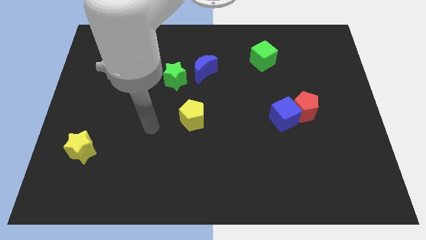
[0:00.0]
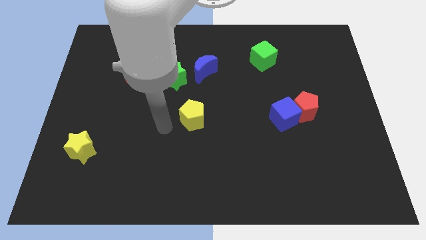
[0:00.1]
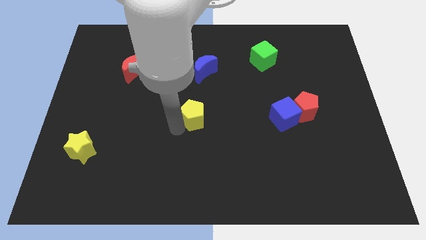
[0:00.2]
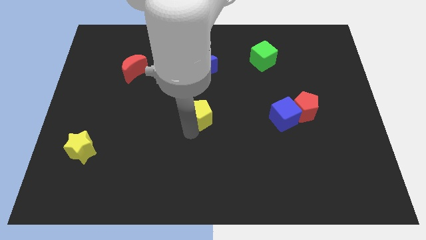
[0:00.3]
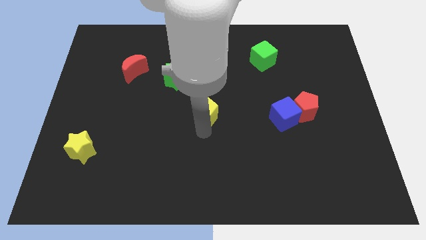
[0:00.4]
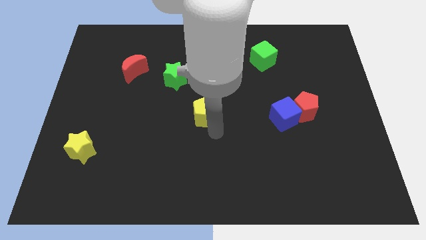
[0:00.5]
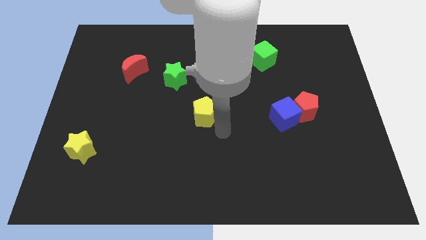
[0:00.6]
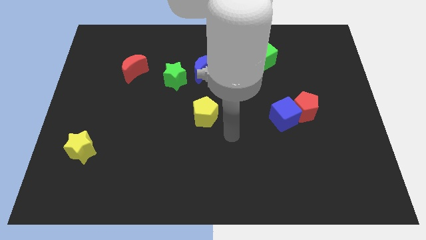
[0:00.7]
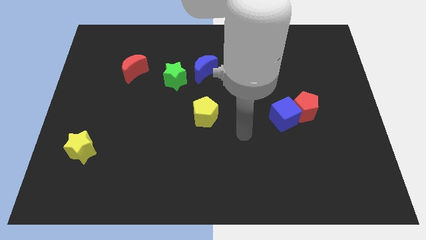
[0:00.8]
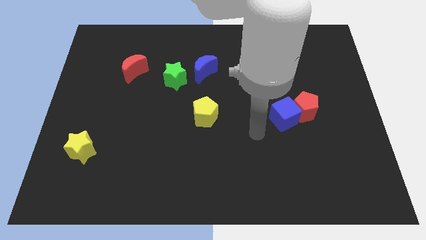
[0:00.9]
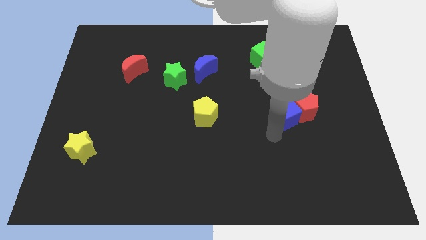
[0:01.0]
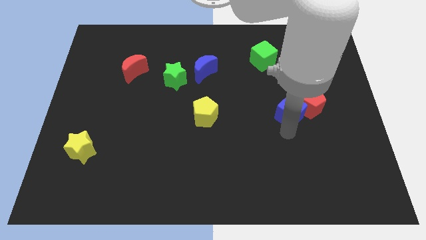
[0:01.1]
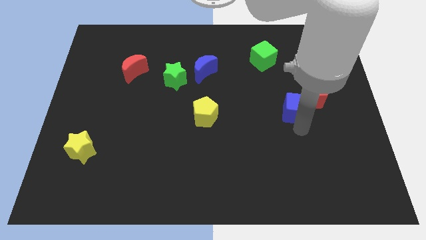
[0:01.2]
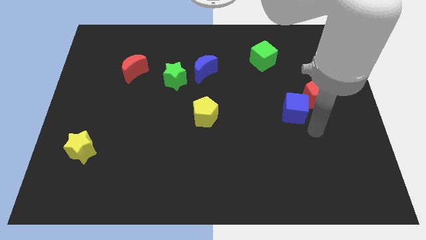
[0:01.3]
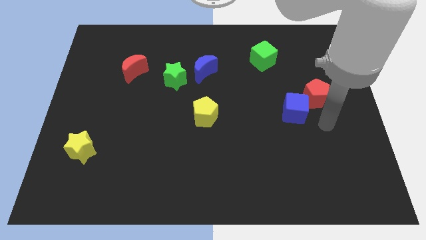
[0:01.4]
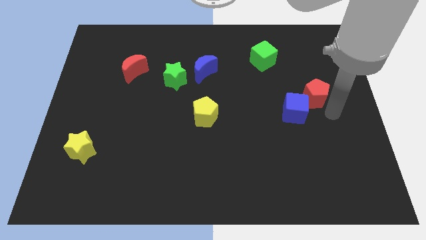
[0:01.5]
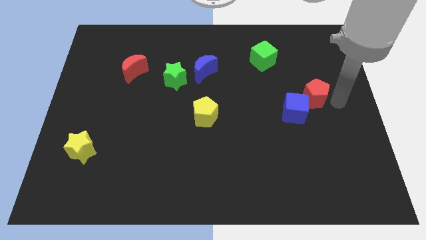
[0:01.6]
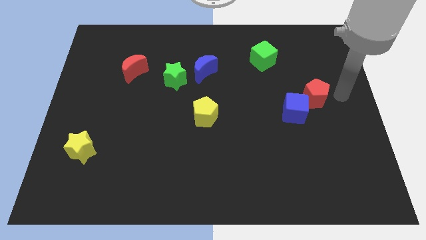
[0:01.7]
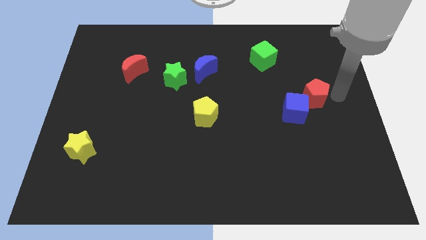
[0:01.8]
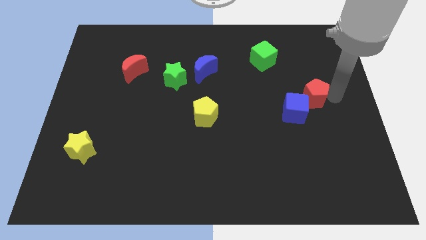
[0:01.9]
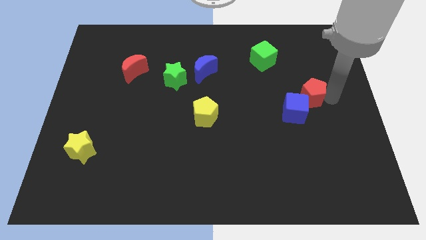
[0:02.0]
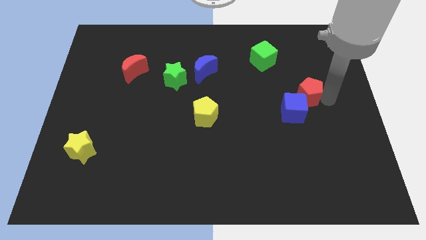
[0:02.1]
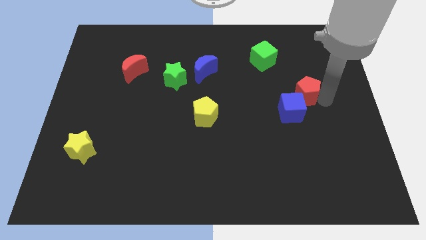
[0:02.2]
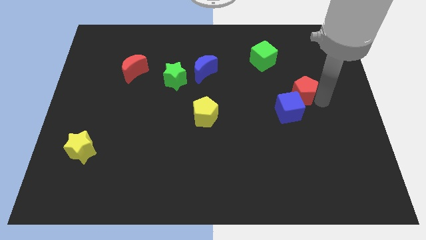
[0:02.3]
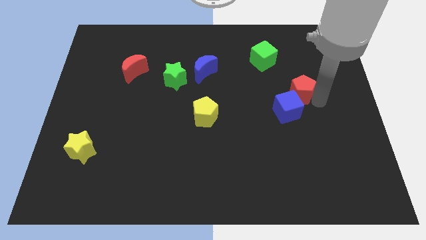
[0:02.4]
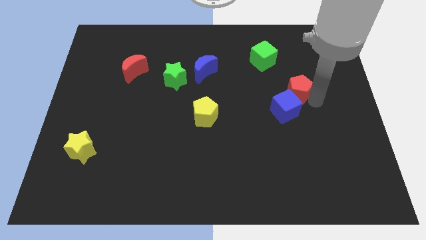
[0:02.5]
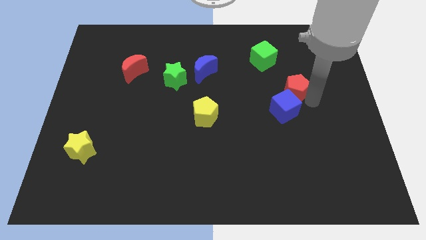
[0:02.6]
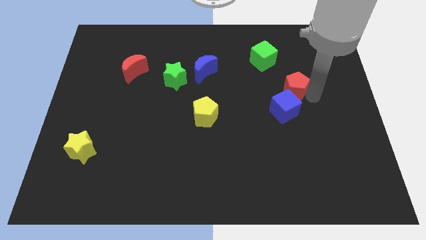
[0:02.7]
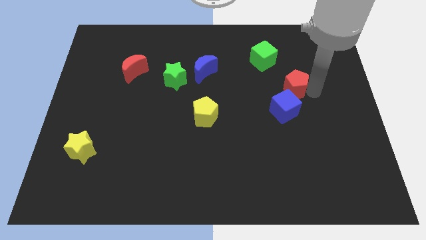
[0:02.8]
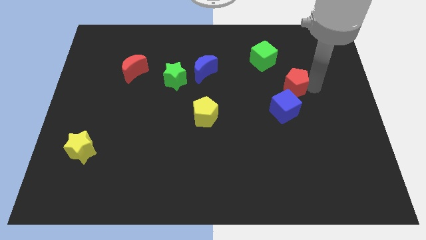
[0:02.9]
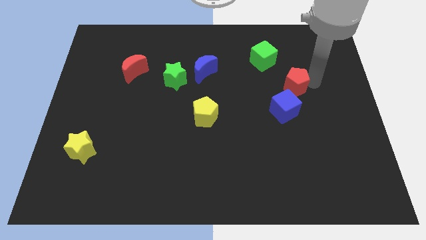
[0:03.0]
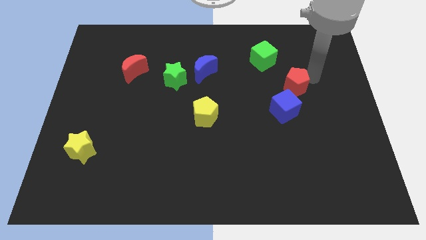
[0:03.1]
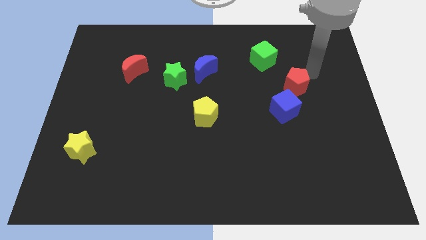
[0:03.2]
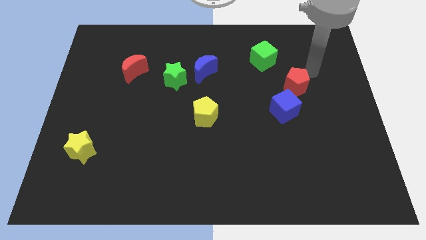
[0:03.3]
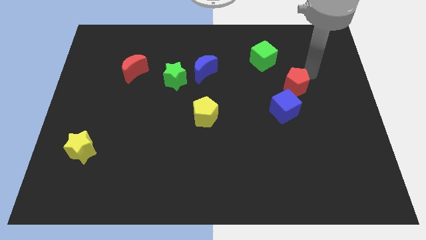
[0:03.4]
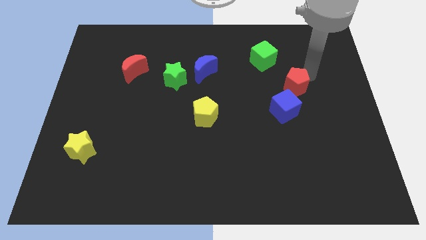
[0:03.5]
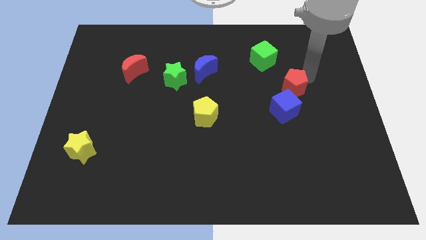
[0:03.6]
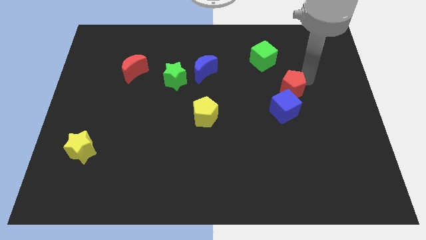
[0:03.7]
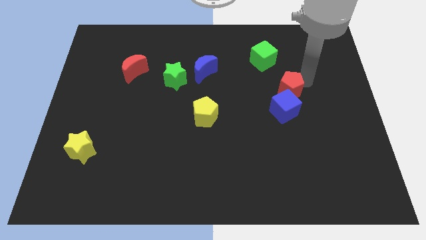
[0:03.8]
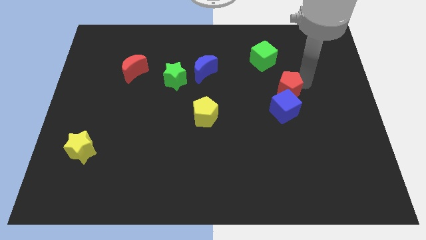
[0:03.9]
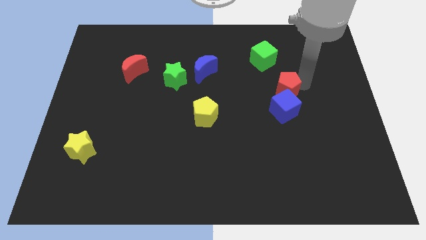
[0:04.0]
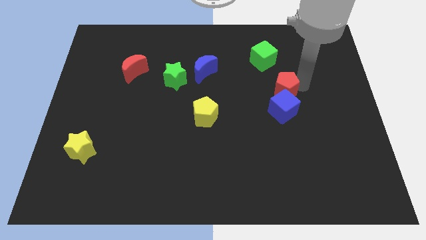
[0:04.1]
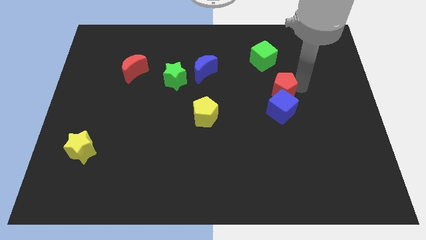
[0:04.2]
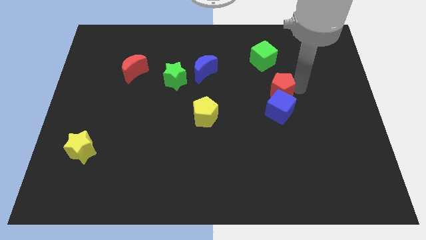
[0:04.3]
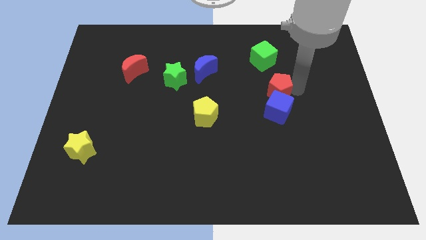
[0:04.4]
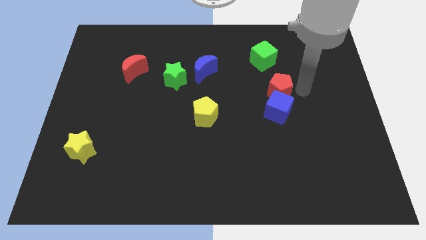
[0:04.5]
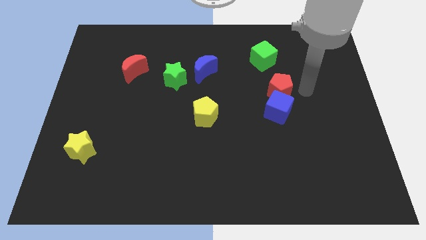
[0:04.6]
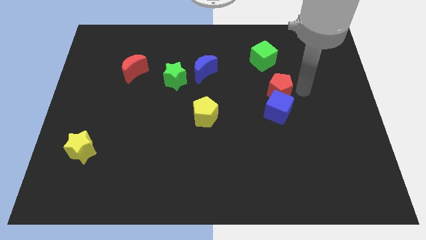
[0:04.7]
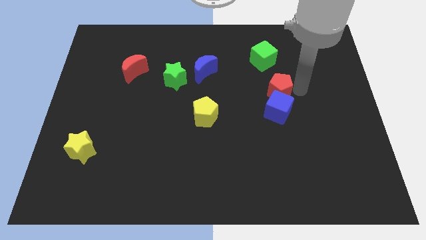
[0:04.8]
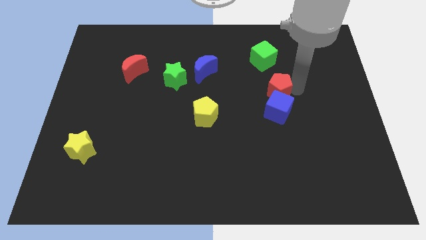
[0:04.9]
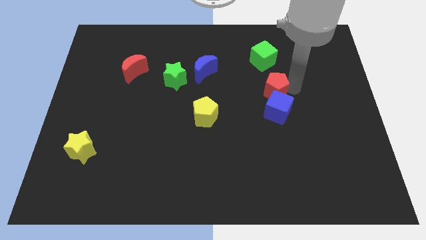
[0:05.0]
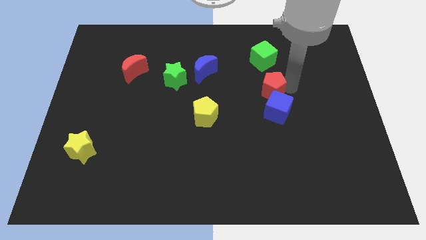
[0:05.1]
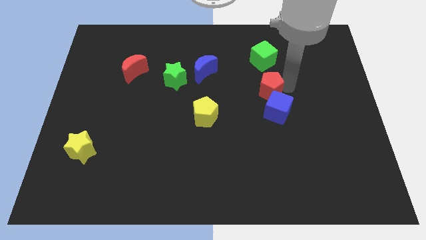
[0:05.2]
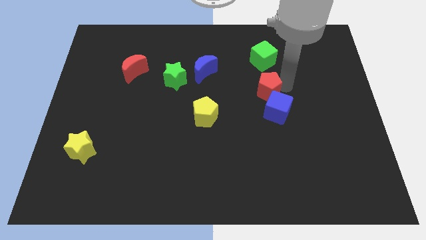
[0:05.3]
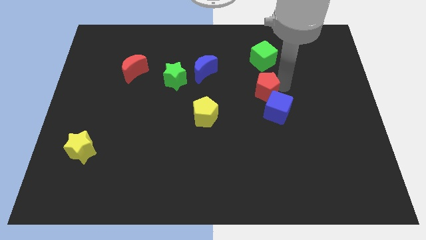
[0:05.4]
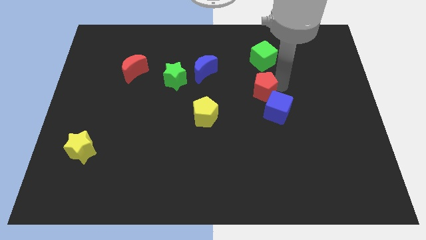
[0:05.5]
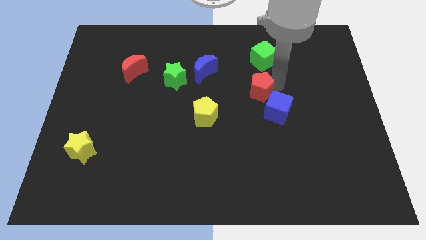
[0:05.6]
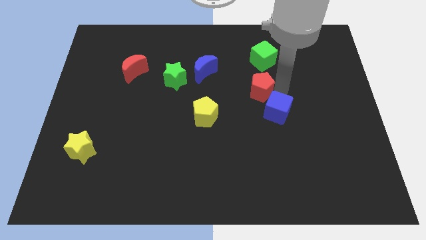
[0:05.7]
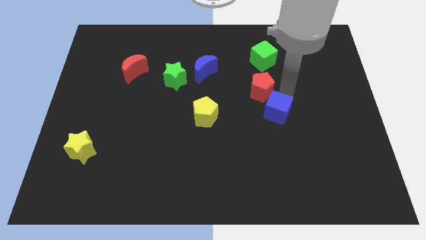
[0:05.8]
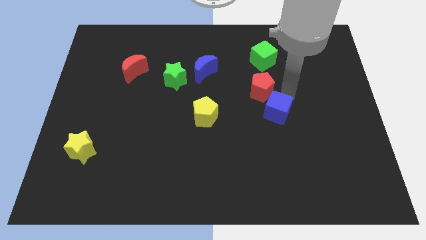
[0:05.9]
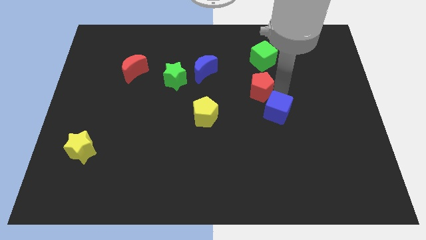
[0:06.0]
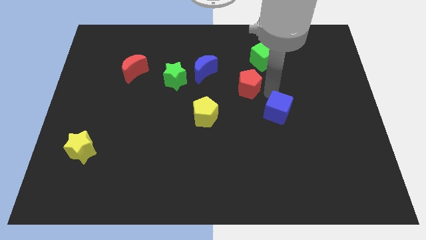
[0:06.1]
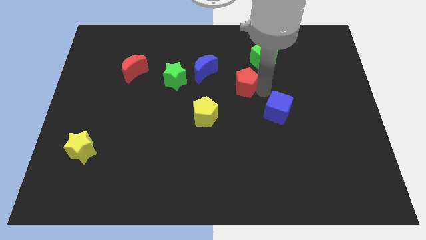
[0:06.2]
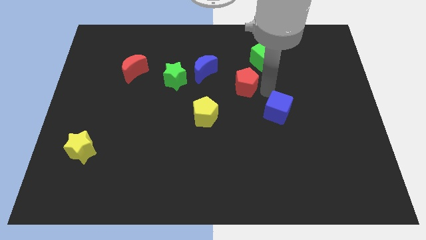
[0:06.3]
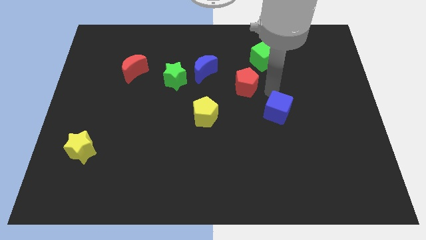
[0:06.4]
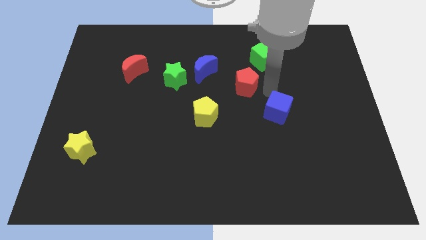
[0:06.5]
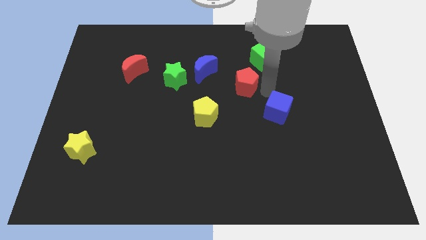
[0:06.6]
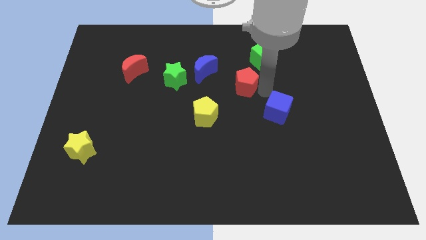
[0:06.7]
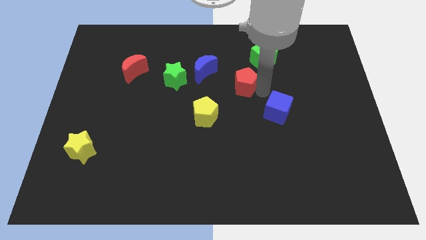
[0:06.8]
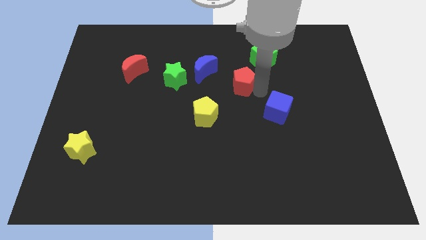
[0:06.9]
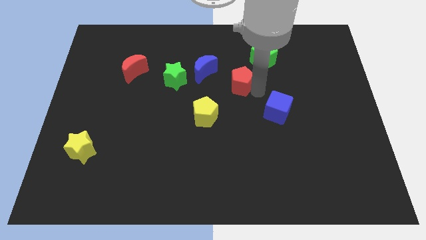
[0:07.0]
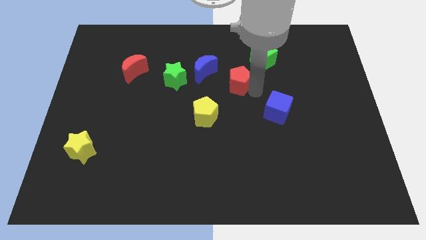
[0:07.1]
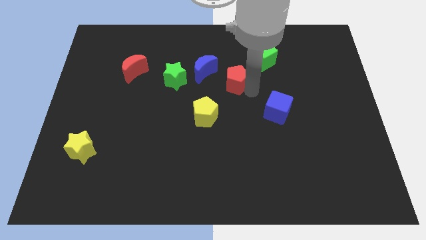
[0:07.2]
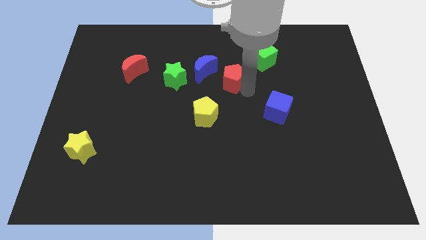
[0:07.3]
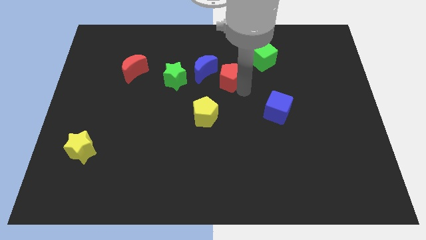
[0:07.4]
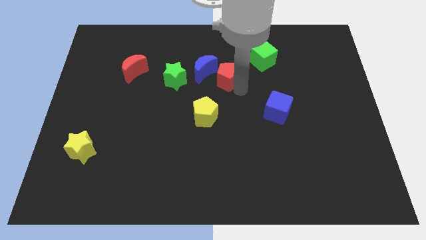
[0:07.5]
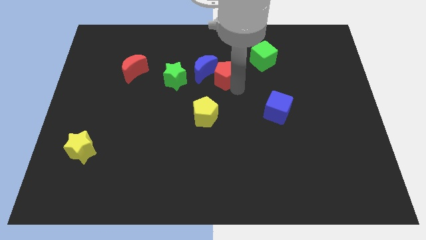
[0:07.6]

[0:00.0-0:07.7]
put the red pentagon towards the blue moon
